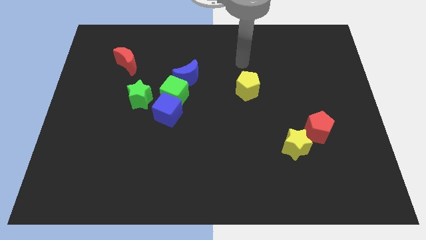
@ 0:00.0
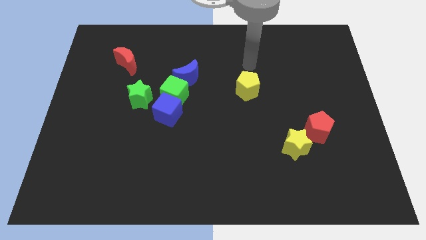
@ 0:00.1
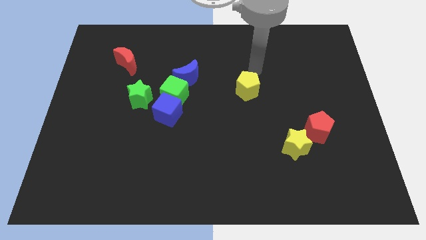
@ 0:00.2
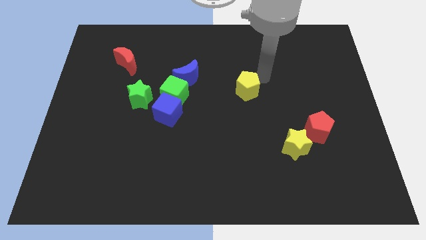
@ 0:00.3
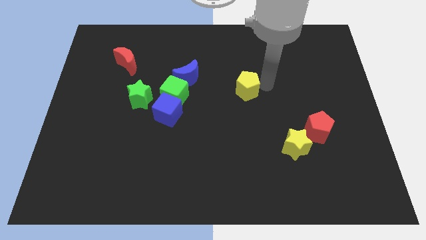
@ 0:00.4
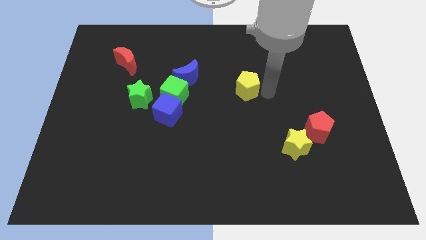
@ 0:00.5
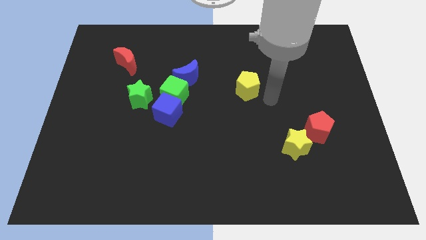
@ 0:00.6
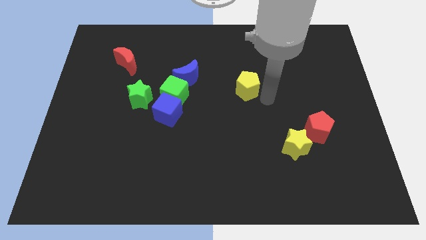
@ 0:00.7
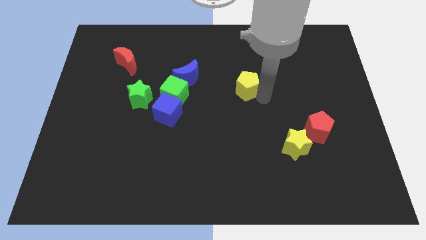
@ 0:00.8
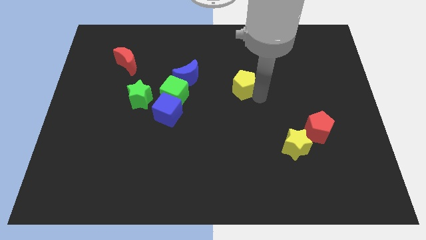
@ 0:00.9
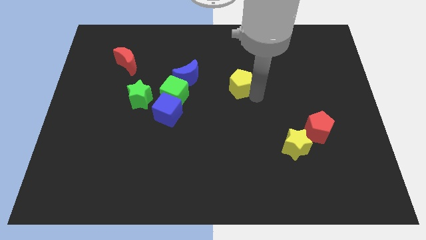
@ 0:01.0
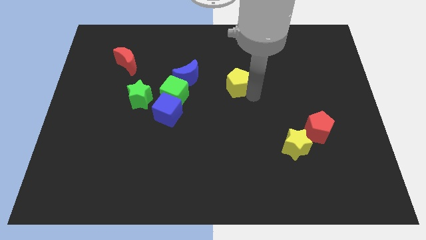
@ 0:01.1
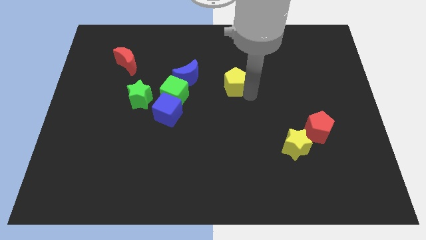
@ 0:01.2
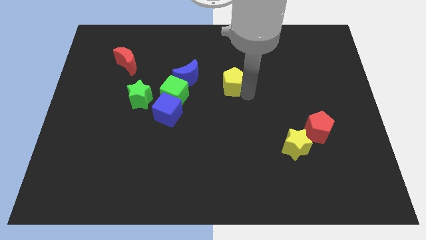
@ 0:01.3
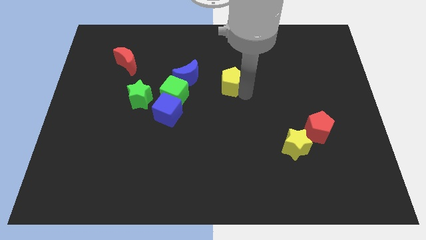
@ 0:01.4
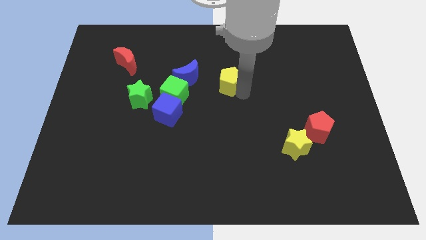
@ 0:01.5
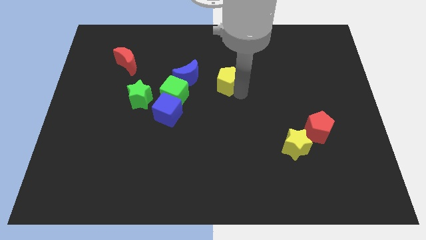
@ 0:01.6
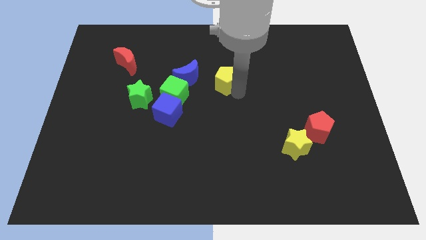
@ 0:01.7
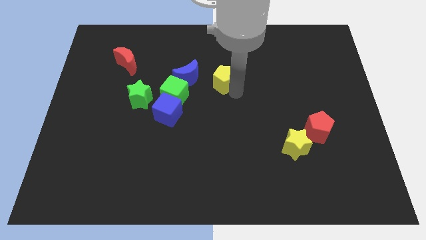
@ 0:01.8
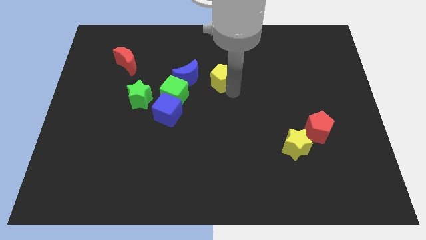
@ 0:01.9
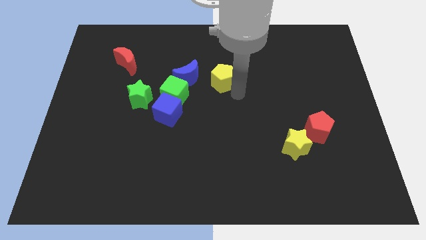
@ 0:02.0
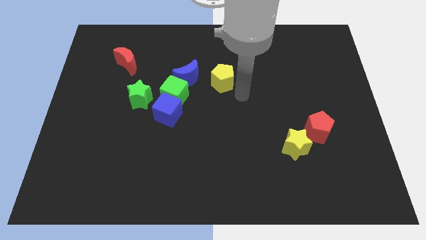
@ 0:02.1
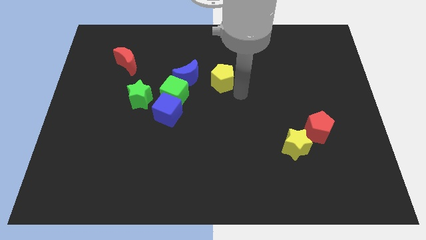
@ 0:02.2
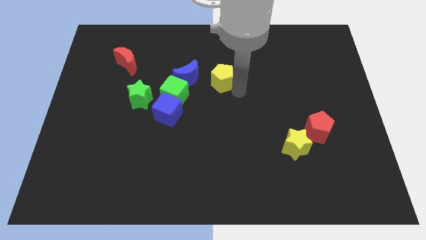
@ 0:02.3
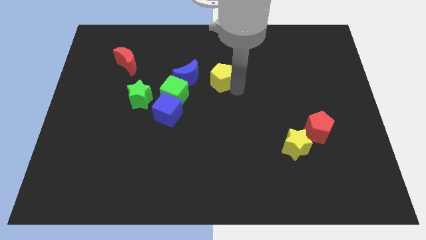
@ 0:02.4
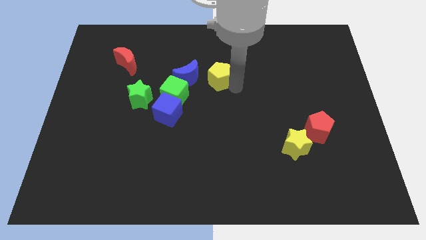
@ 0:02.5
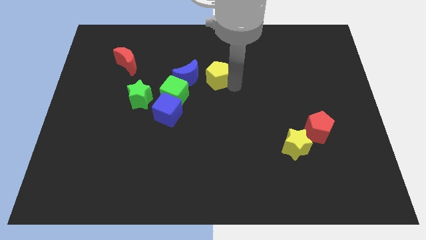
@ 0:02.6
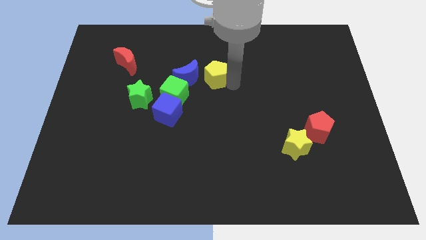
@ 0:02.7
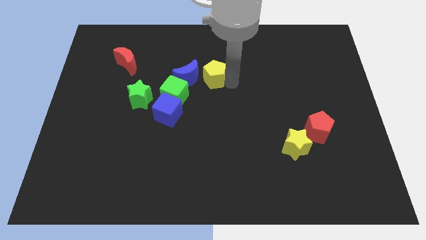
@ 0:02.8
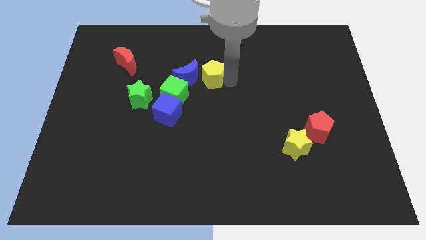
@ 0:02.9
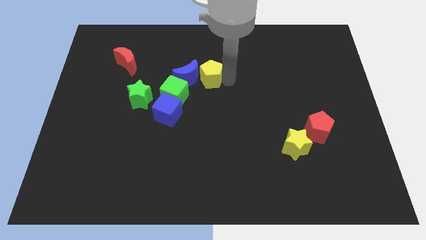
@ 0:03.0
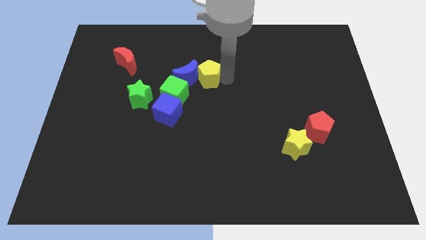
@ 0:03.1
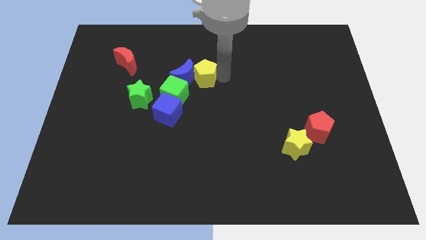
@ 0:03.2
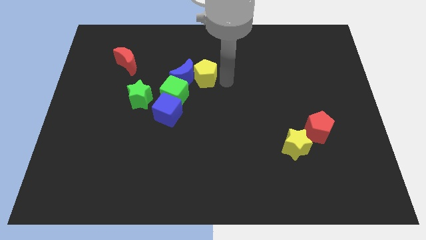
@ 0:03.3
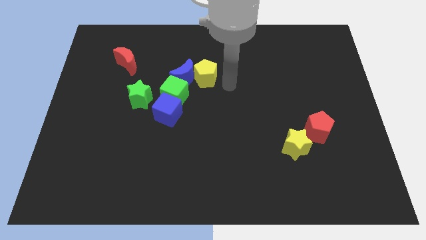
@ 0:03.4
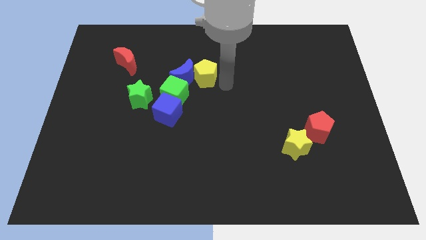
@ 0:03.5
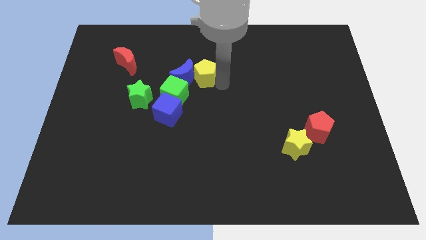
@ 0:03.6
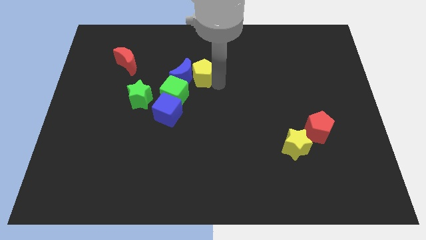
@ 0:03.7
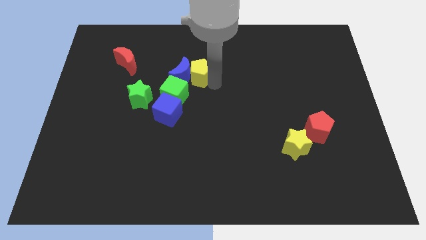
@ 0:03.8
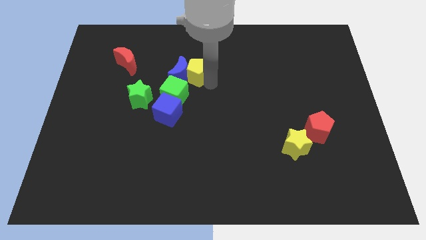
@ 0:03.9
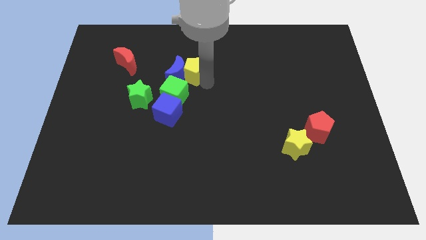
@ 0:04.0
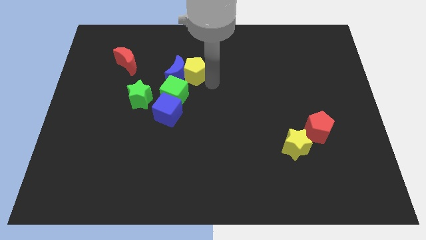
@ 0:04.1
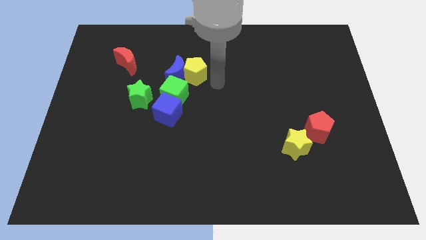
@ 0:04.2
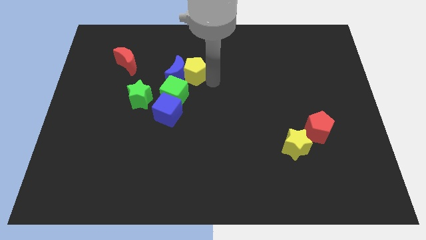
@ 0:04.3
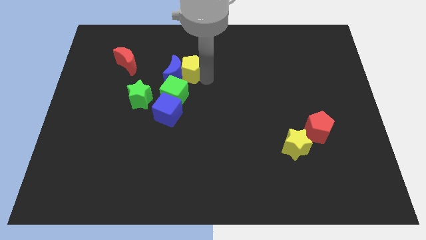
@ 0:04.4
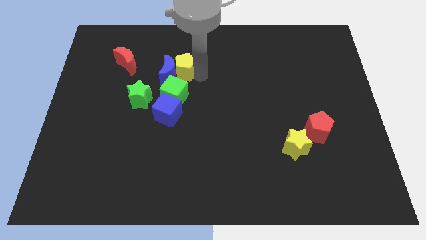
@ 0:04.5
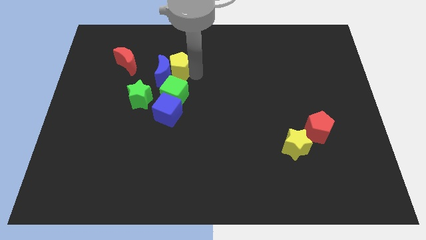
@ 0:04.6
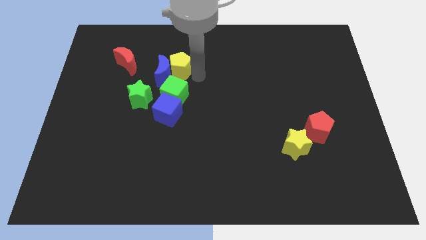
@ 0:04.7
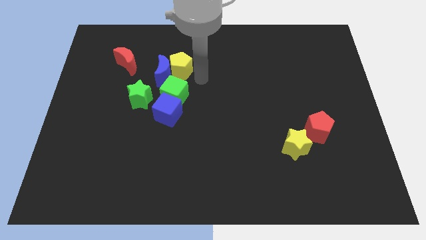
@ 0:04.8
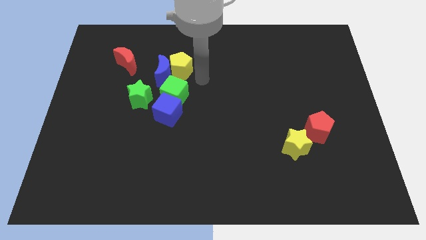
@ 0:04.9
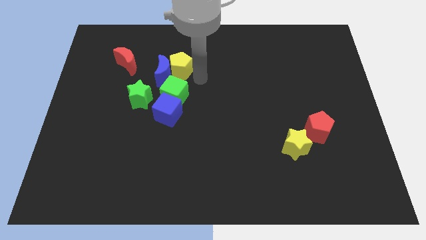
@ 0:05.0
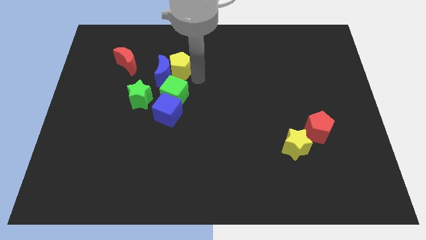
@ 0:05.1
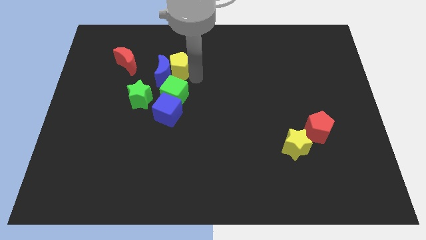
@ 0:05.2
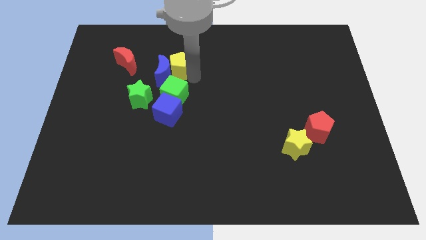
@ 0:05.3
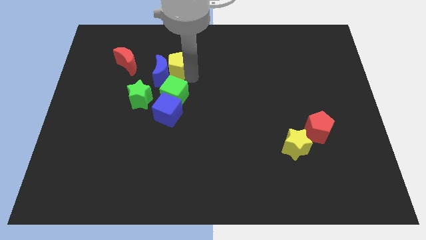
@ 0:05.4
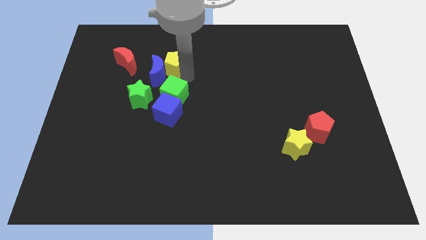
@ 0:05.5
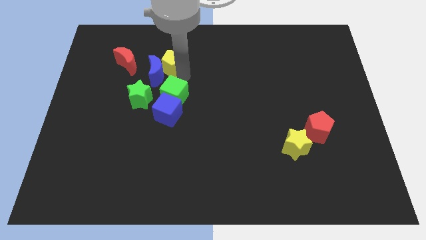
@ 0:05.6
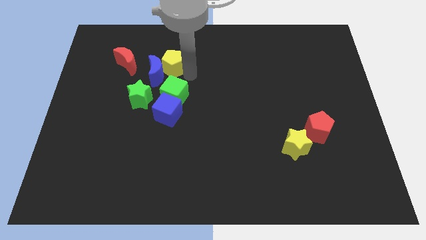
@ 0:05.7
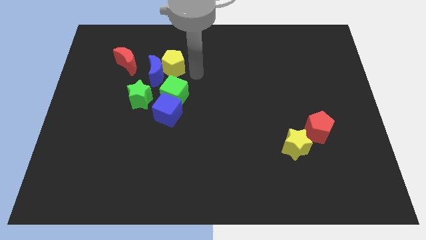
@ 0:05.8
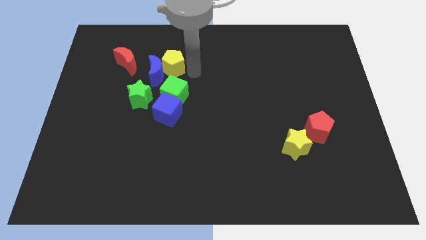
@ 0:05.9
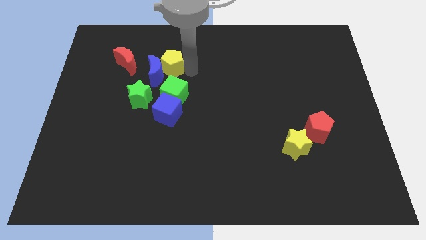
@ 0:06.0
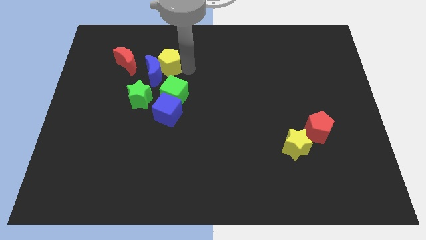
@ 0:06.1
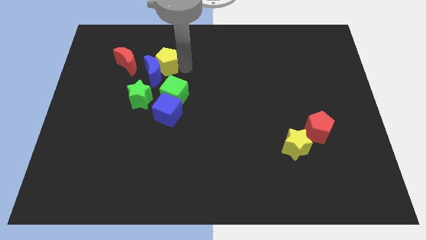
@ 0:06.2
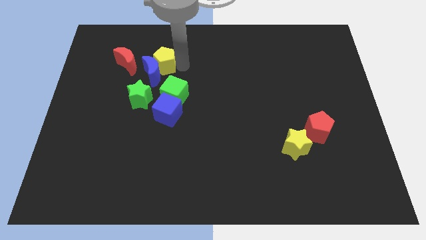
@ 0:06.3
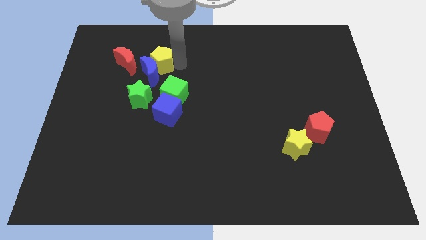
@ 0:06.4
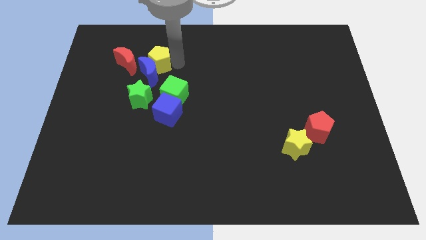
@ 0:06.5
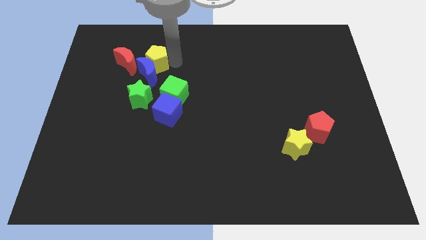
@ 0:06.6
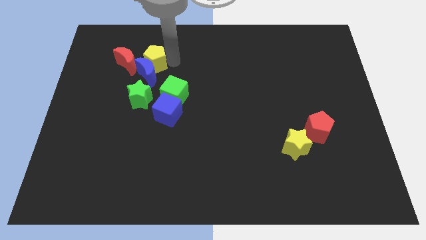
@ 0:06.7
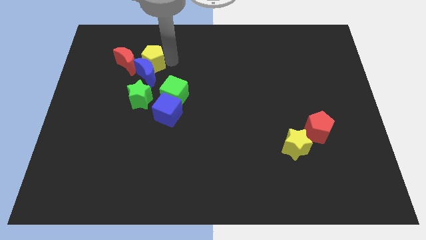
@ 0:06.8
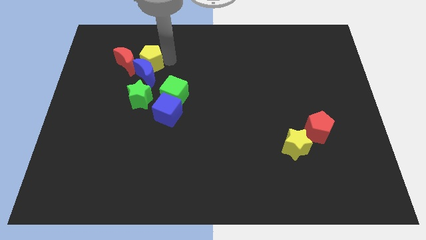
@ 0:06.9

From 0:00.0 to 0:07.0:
slide the yellow pentagon towards the red moon
